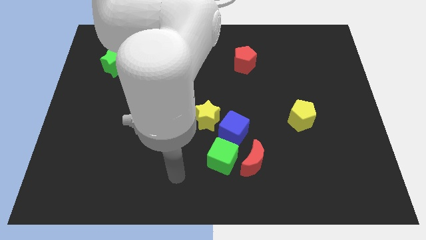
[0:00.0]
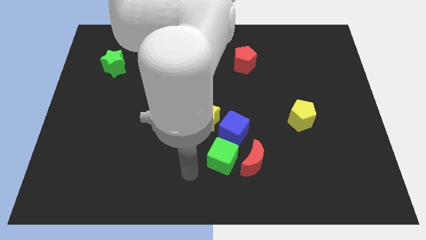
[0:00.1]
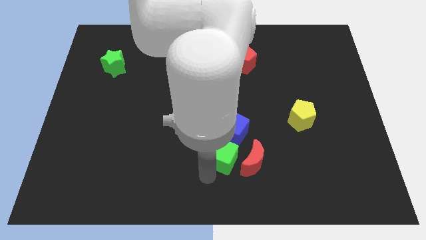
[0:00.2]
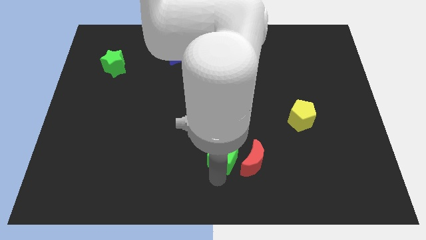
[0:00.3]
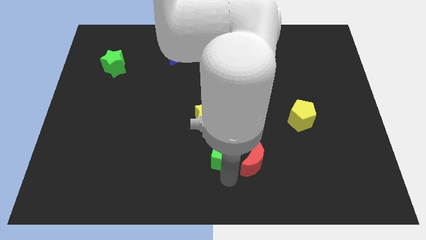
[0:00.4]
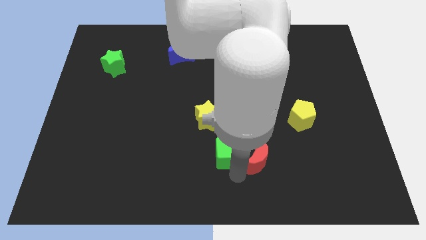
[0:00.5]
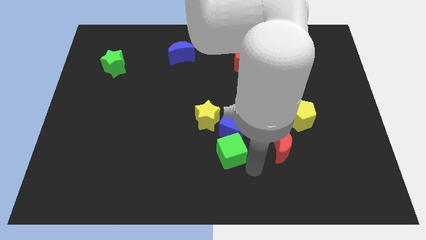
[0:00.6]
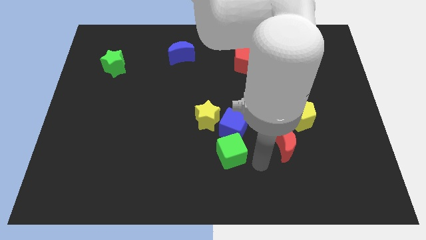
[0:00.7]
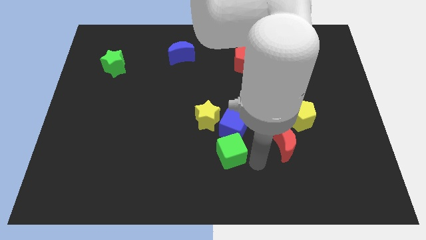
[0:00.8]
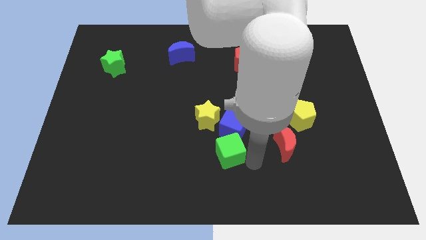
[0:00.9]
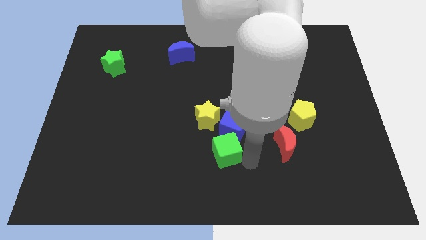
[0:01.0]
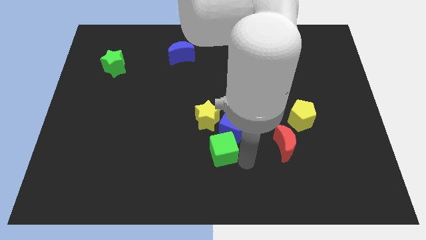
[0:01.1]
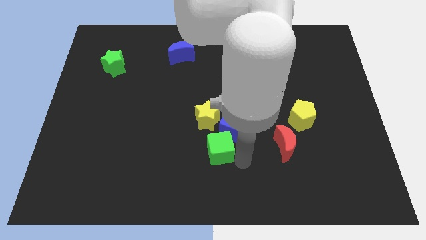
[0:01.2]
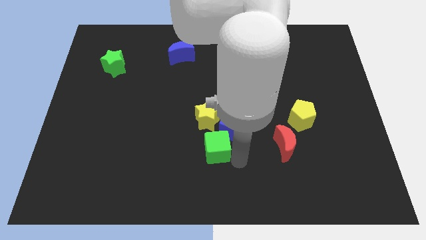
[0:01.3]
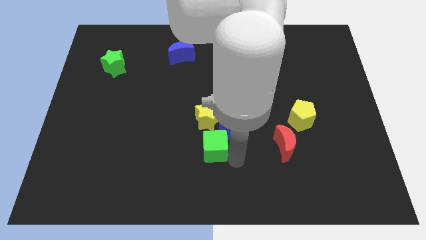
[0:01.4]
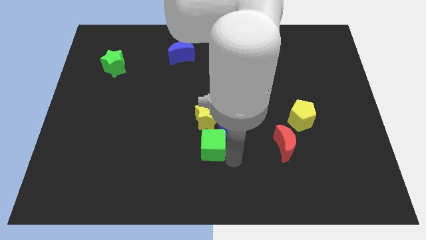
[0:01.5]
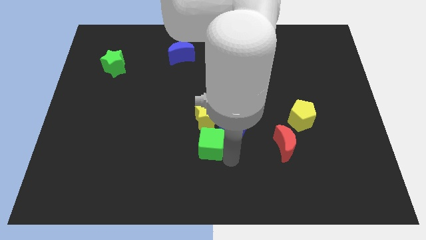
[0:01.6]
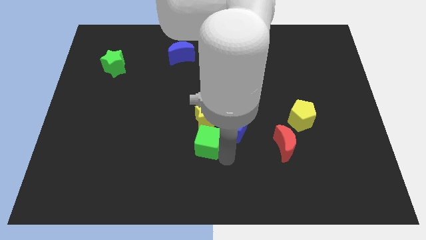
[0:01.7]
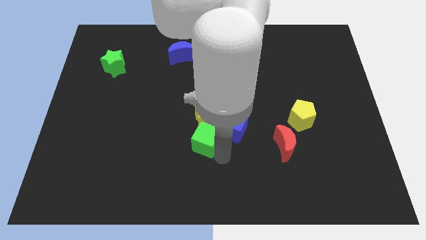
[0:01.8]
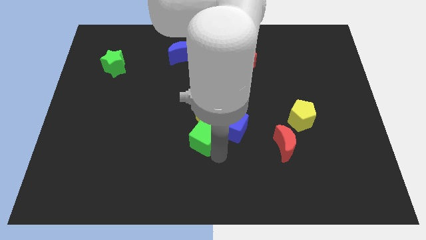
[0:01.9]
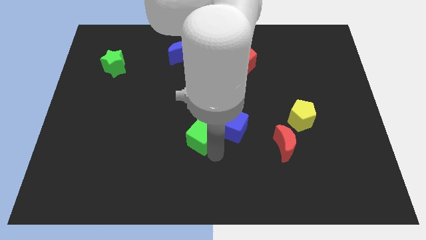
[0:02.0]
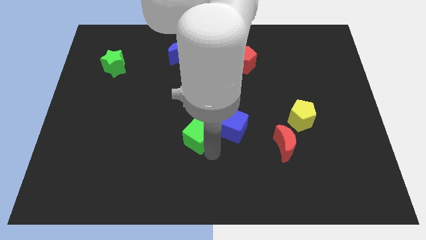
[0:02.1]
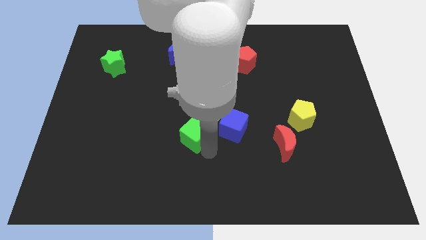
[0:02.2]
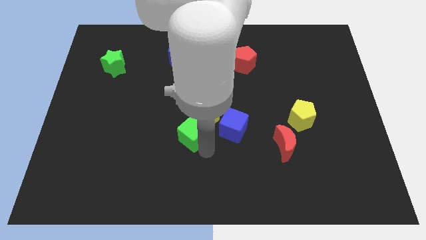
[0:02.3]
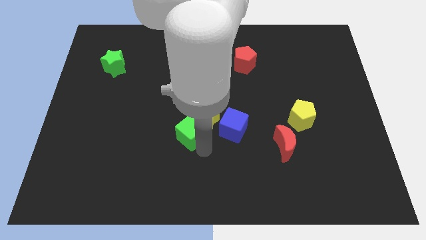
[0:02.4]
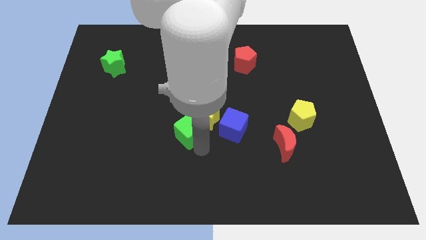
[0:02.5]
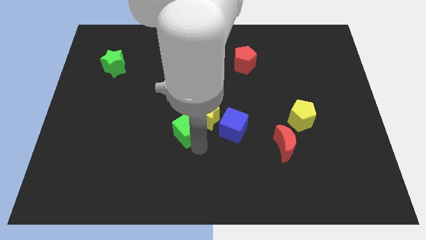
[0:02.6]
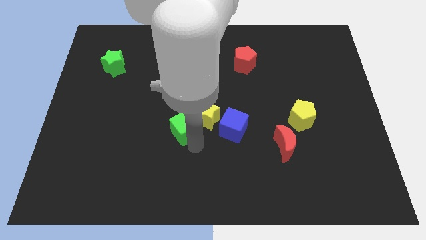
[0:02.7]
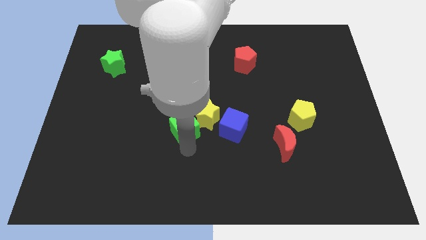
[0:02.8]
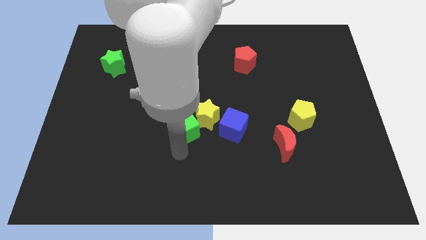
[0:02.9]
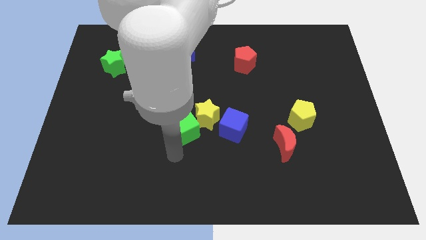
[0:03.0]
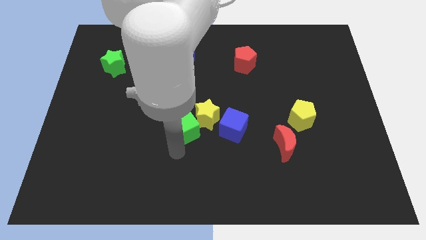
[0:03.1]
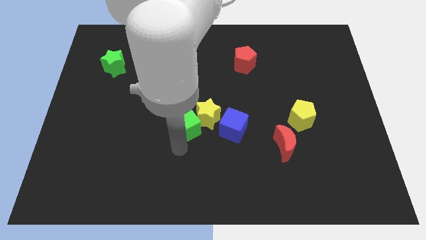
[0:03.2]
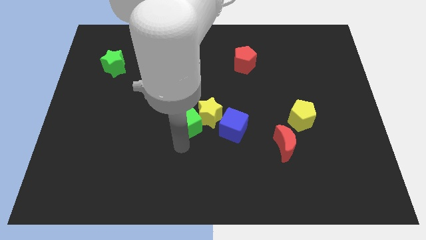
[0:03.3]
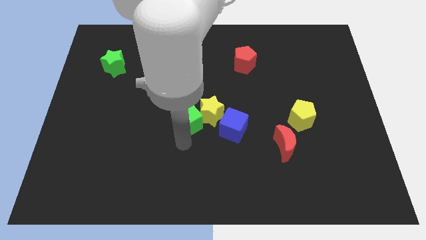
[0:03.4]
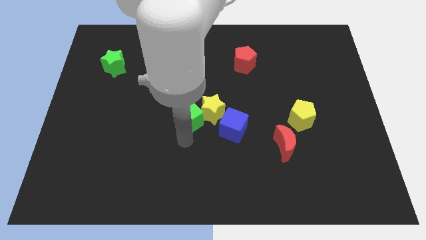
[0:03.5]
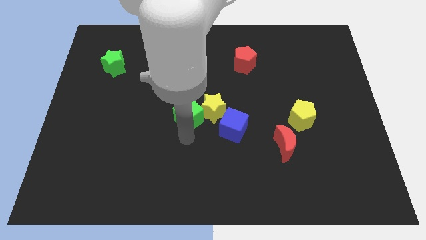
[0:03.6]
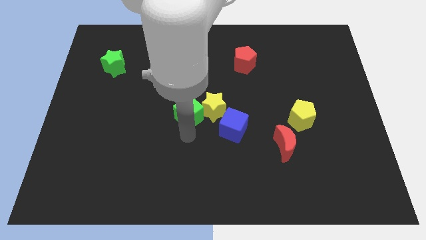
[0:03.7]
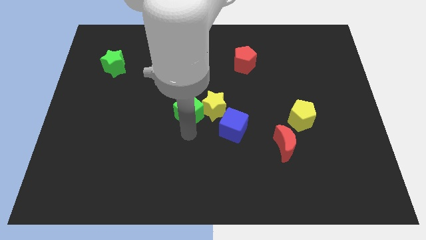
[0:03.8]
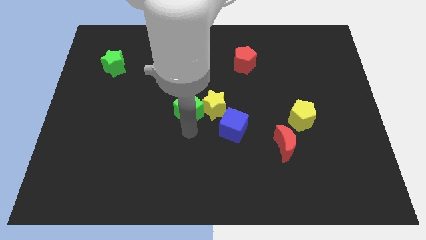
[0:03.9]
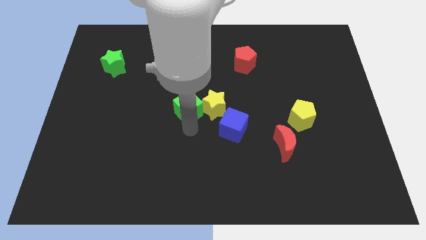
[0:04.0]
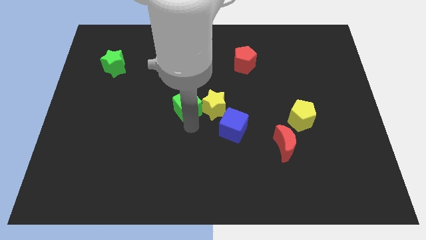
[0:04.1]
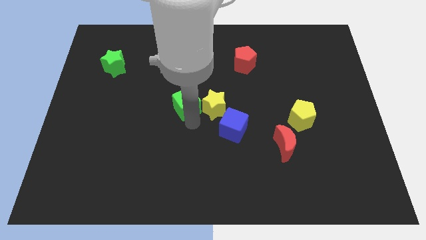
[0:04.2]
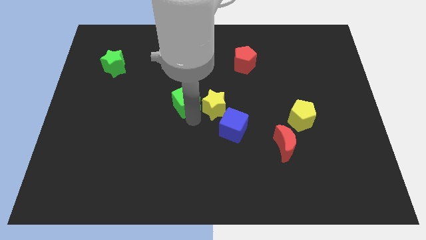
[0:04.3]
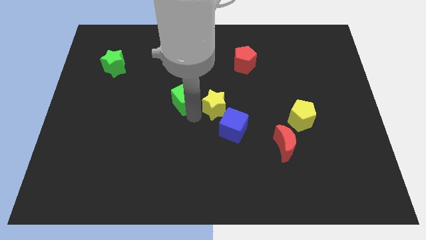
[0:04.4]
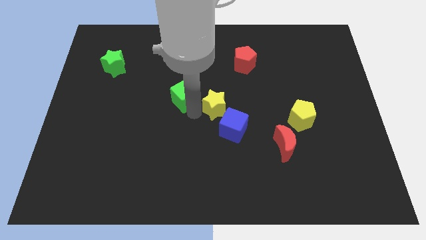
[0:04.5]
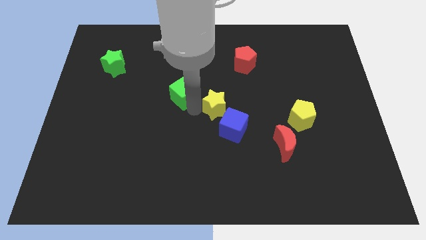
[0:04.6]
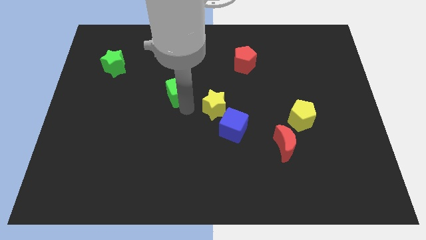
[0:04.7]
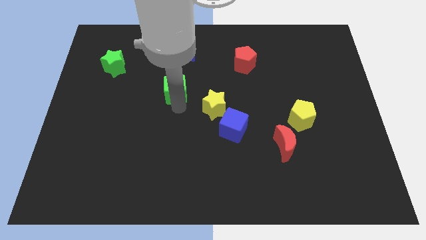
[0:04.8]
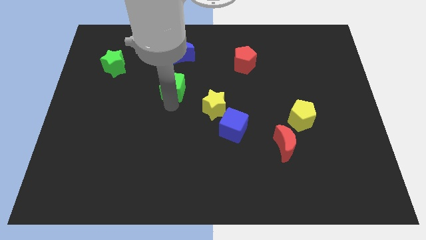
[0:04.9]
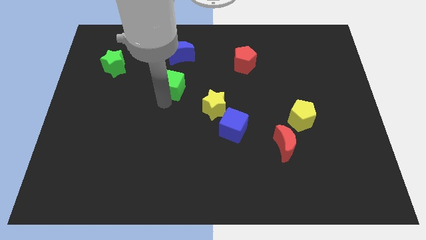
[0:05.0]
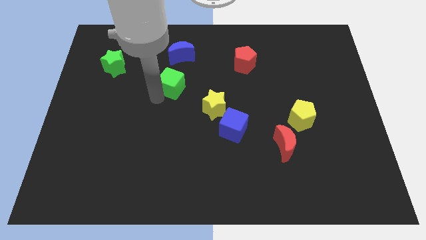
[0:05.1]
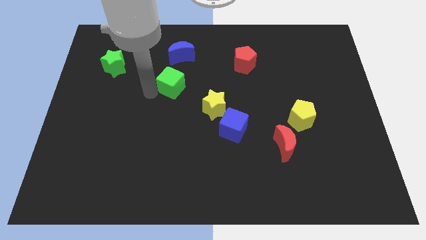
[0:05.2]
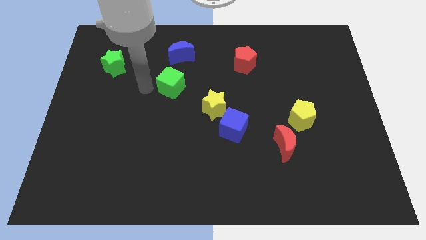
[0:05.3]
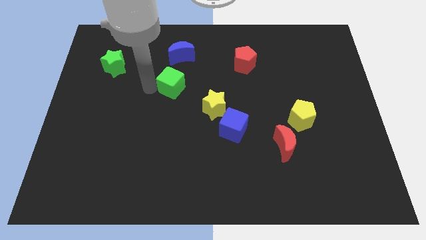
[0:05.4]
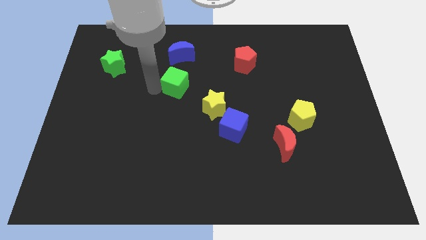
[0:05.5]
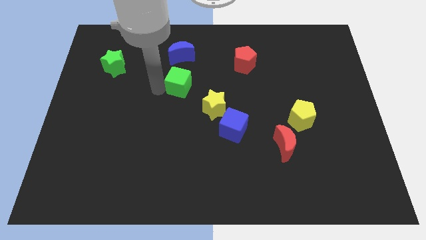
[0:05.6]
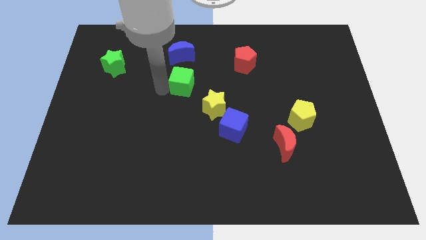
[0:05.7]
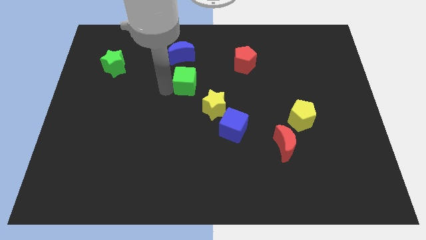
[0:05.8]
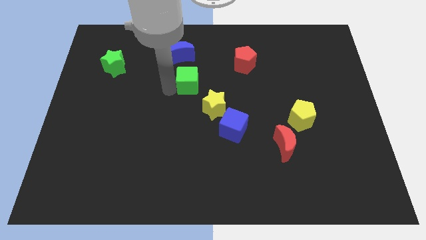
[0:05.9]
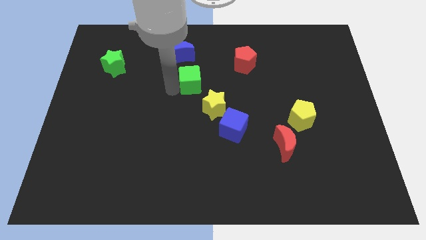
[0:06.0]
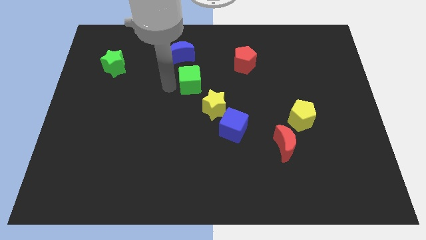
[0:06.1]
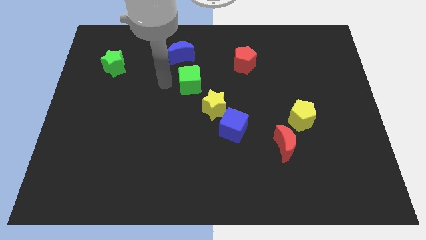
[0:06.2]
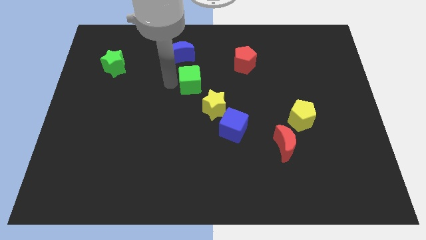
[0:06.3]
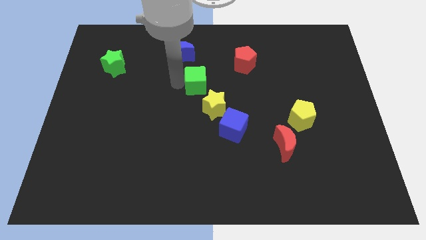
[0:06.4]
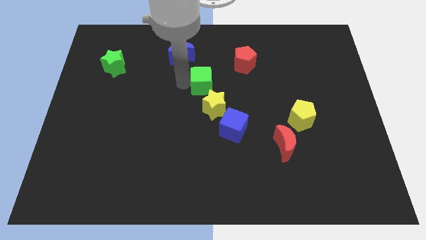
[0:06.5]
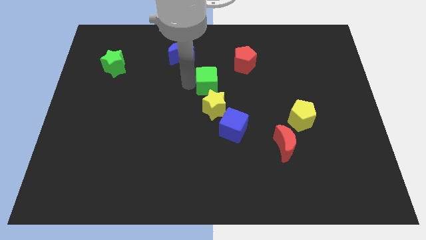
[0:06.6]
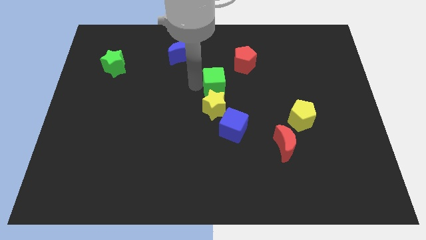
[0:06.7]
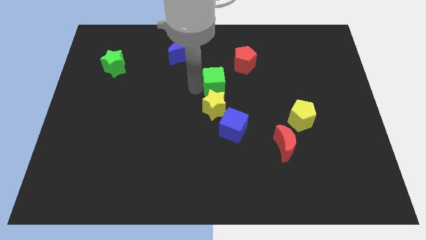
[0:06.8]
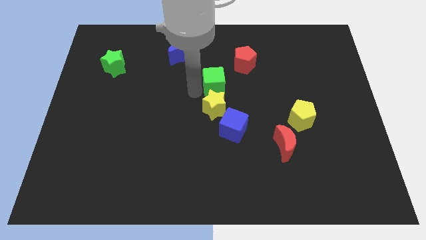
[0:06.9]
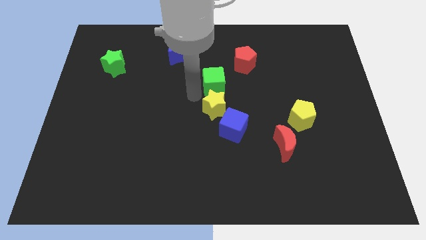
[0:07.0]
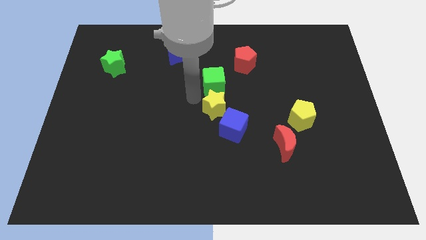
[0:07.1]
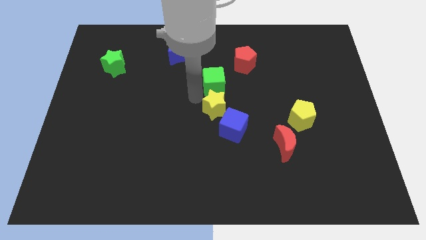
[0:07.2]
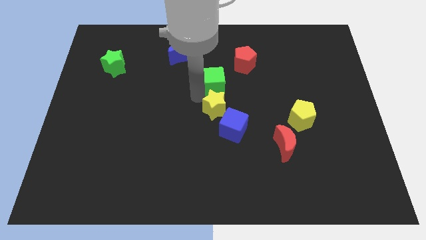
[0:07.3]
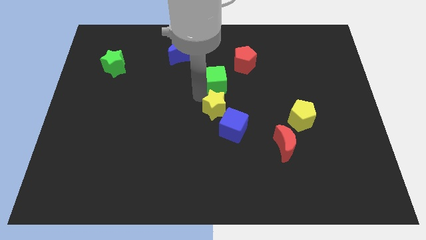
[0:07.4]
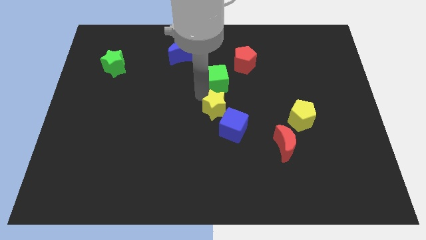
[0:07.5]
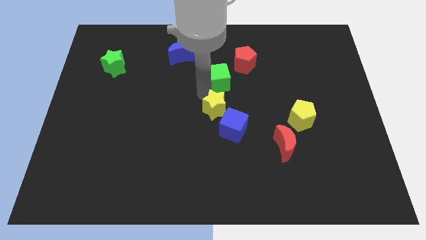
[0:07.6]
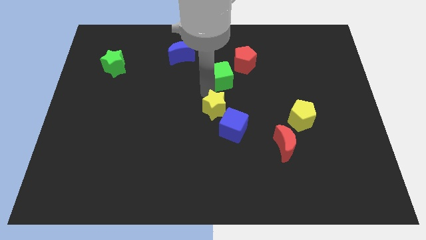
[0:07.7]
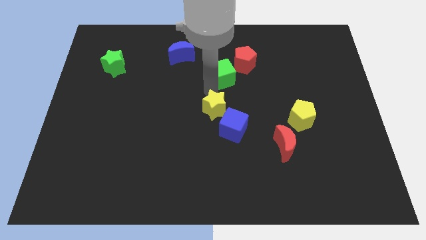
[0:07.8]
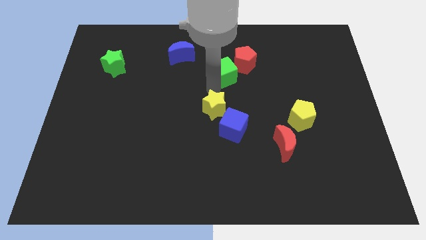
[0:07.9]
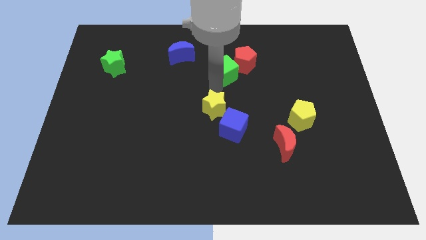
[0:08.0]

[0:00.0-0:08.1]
slide the green cube towards the red pentagon
